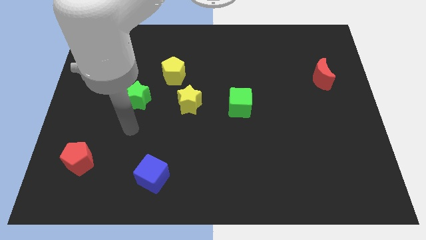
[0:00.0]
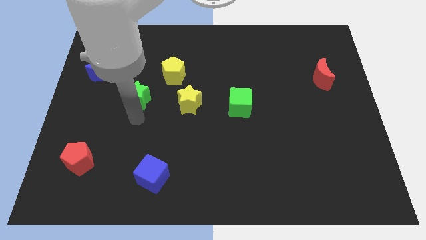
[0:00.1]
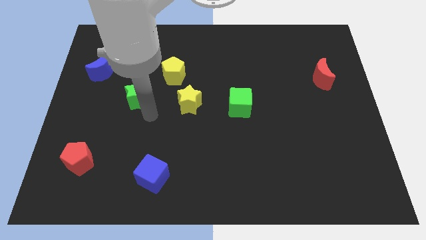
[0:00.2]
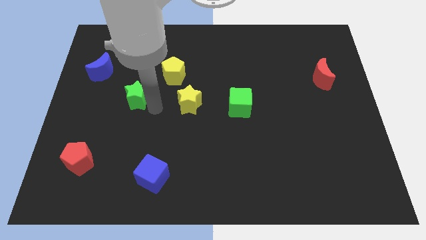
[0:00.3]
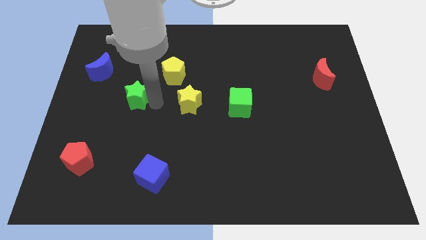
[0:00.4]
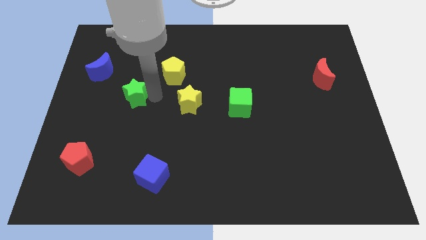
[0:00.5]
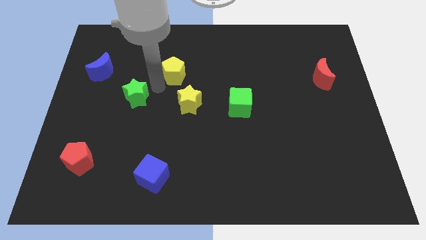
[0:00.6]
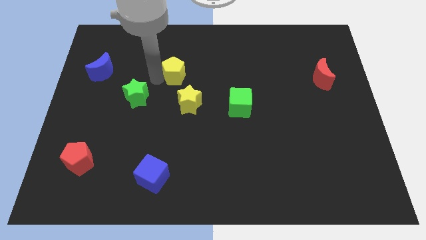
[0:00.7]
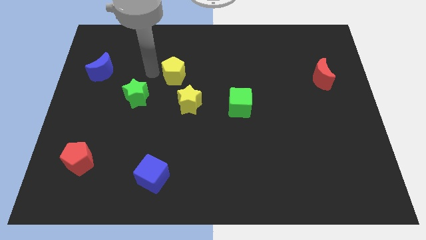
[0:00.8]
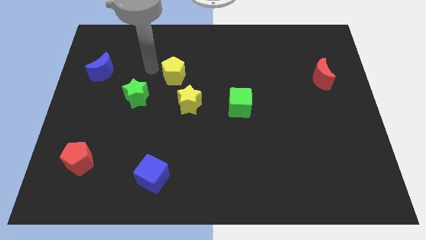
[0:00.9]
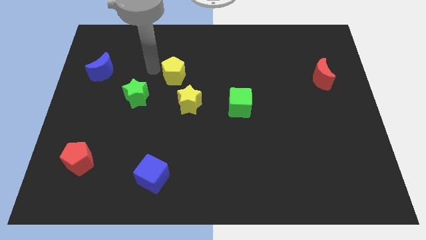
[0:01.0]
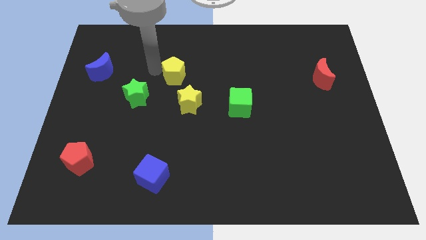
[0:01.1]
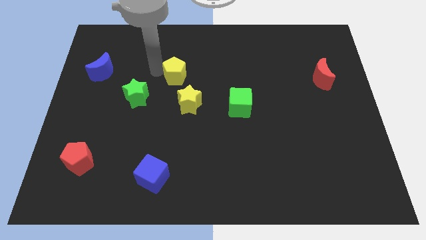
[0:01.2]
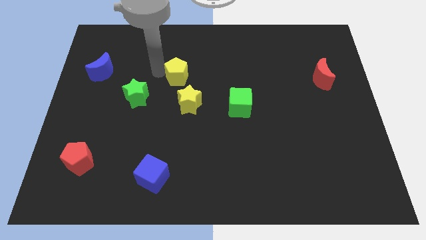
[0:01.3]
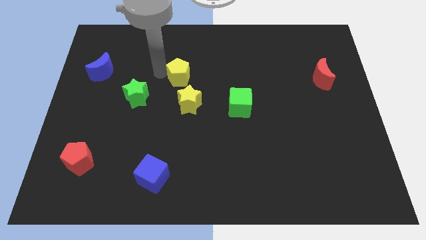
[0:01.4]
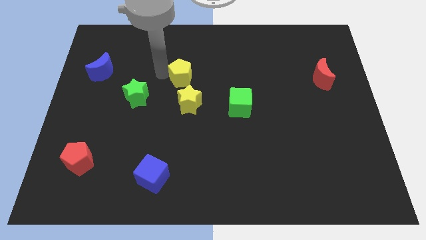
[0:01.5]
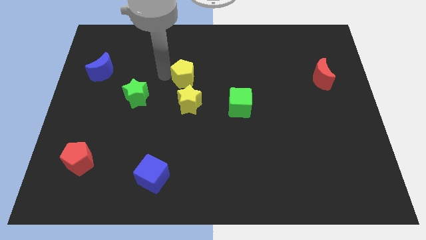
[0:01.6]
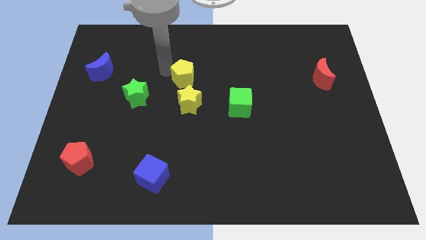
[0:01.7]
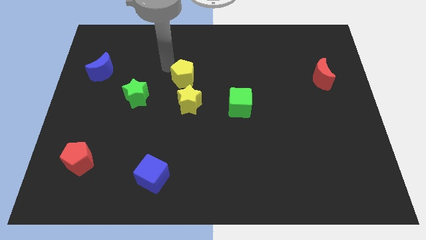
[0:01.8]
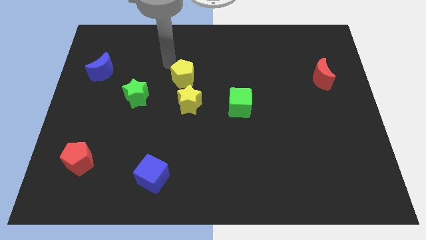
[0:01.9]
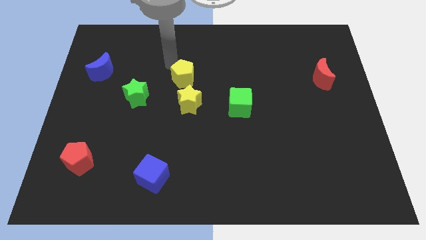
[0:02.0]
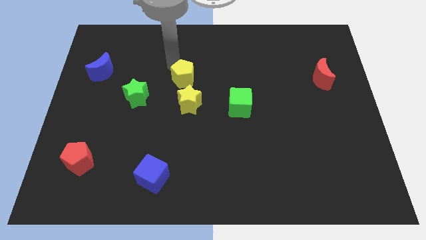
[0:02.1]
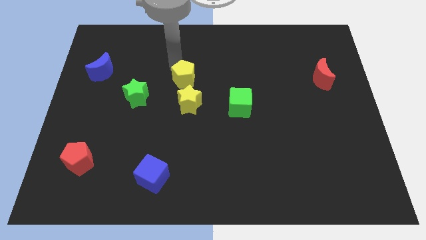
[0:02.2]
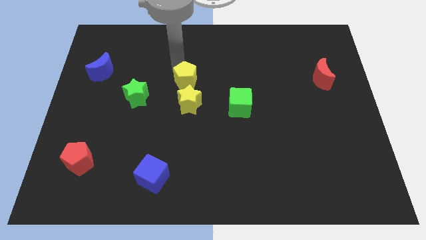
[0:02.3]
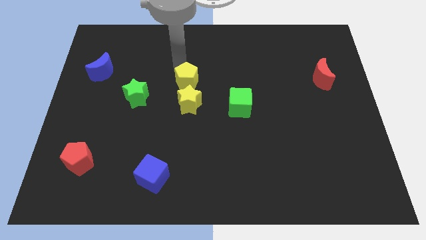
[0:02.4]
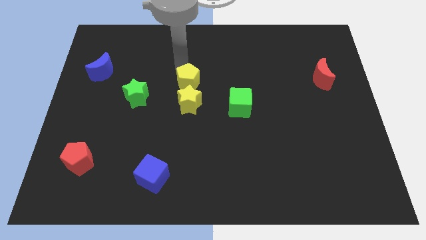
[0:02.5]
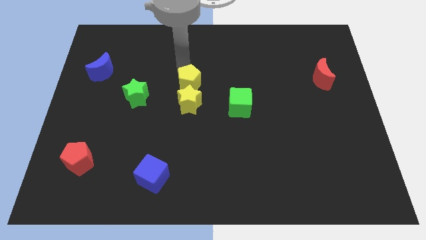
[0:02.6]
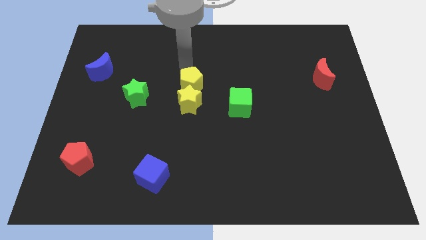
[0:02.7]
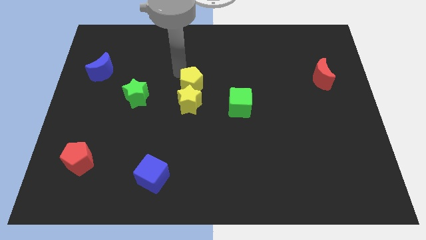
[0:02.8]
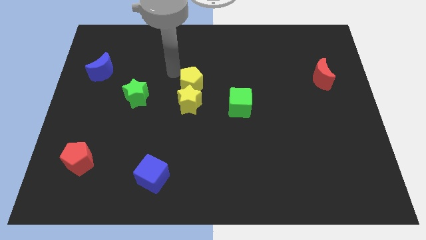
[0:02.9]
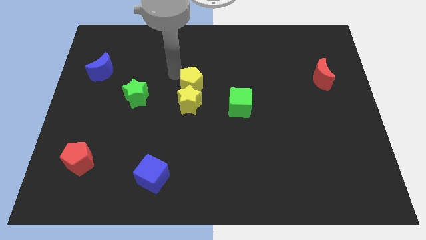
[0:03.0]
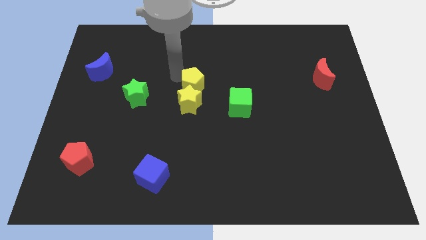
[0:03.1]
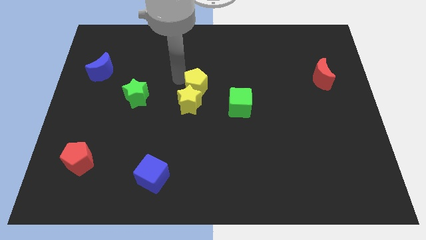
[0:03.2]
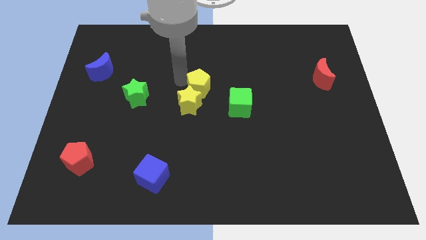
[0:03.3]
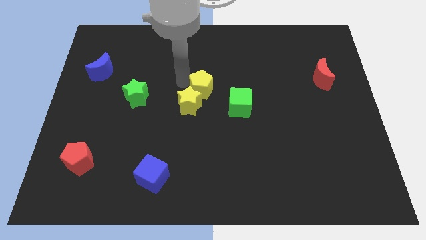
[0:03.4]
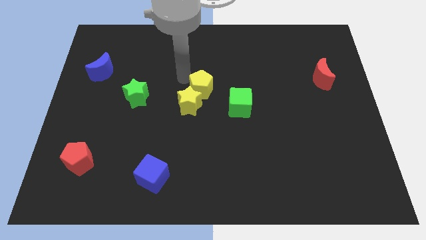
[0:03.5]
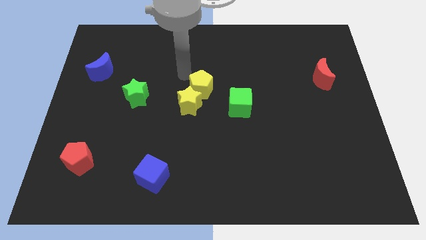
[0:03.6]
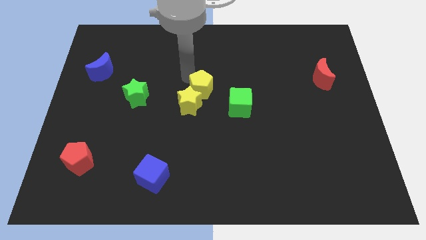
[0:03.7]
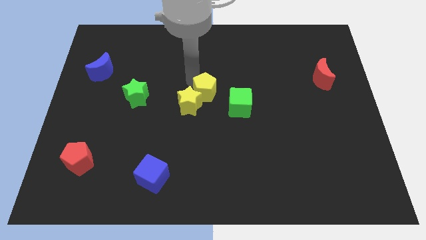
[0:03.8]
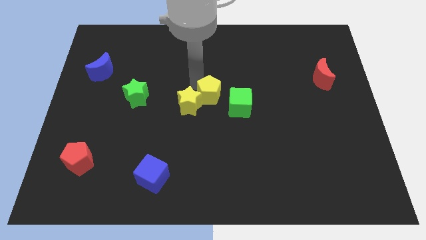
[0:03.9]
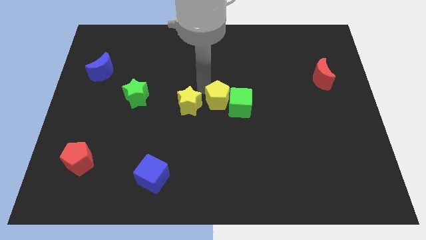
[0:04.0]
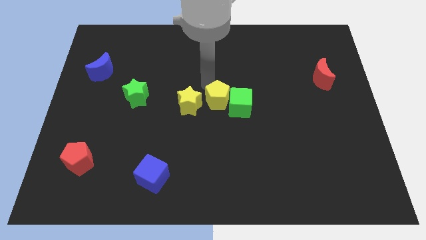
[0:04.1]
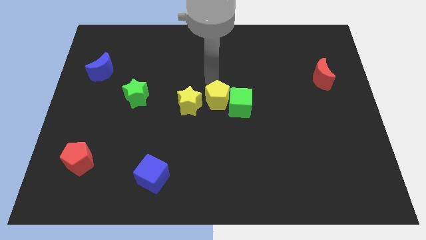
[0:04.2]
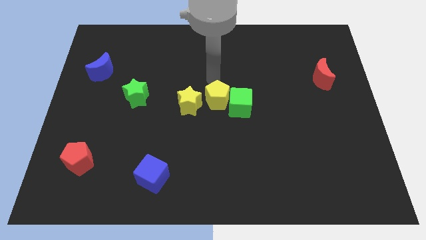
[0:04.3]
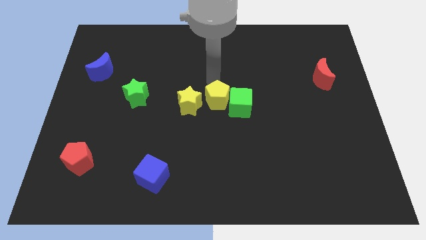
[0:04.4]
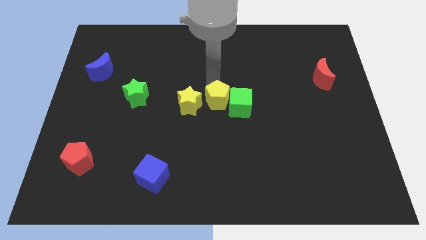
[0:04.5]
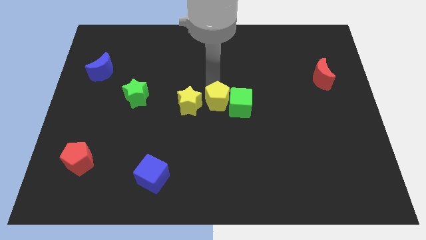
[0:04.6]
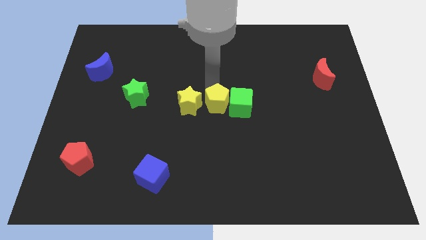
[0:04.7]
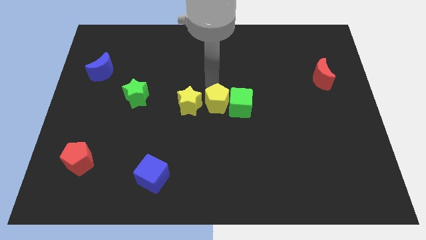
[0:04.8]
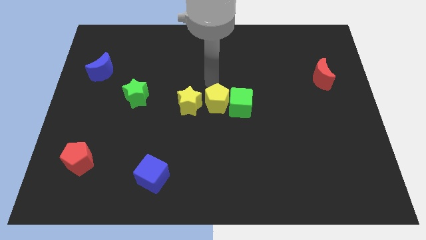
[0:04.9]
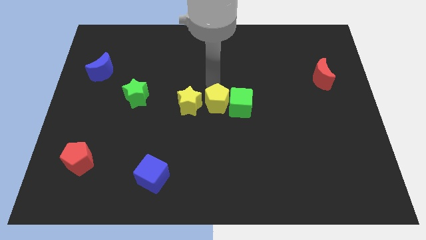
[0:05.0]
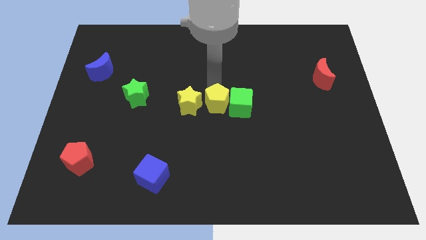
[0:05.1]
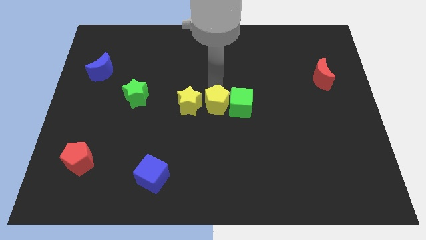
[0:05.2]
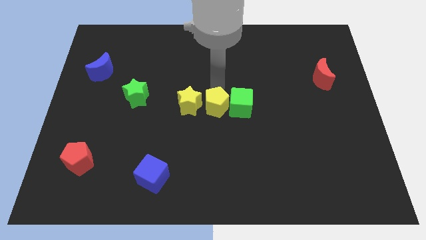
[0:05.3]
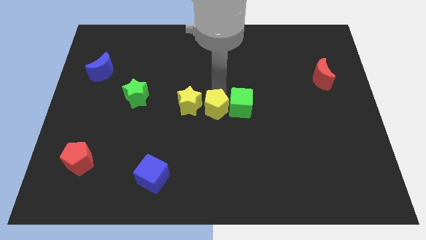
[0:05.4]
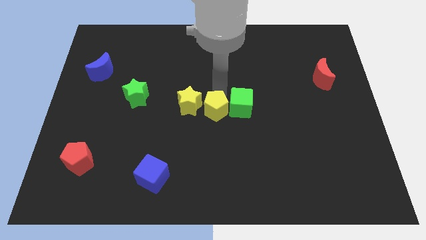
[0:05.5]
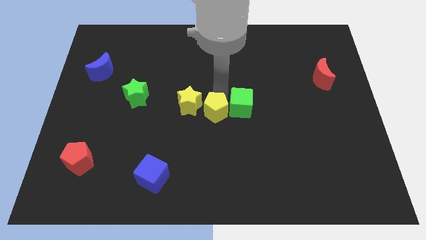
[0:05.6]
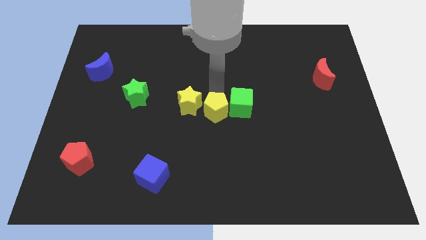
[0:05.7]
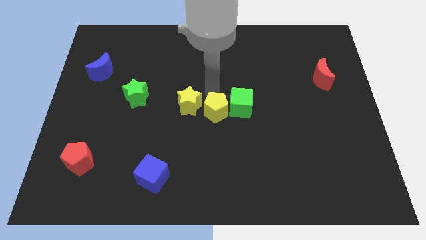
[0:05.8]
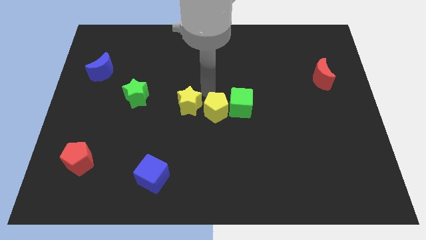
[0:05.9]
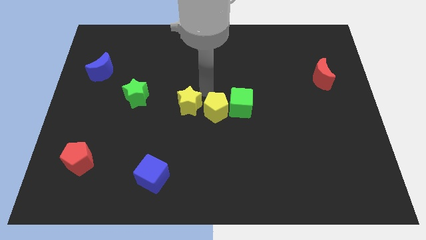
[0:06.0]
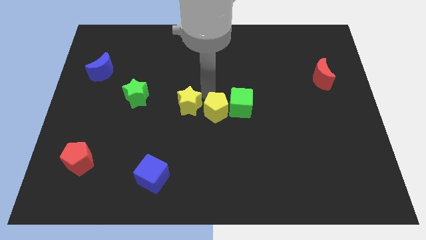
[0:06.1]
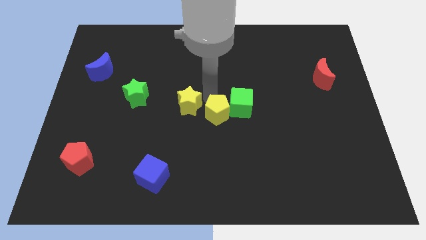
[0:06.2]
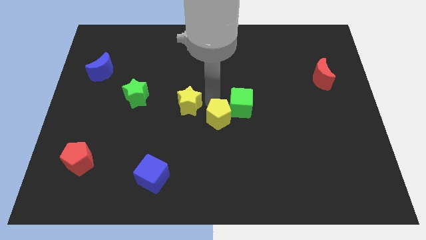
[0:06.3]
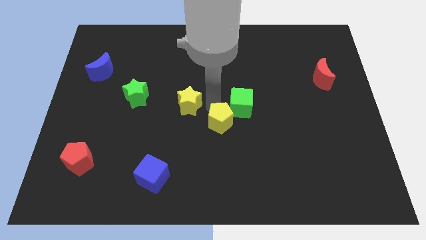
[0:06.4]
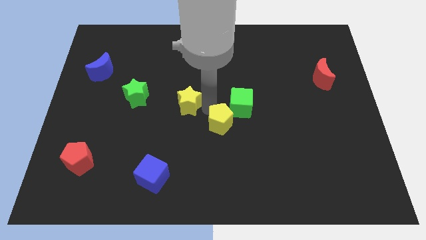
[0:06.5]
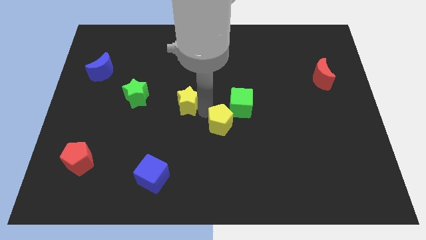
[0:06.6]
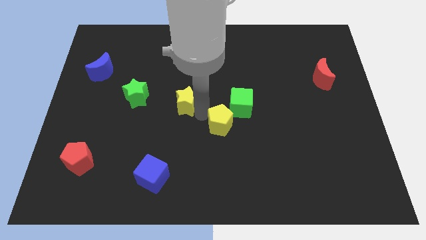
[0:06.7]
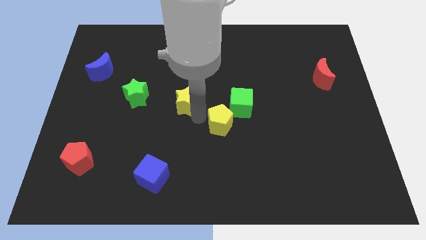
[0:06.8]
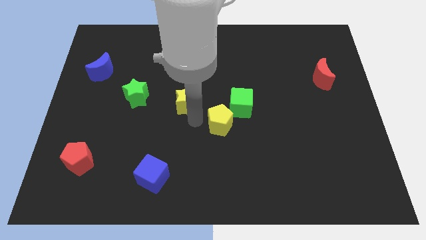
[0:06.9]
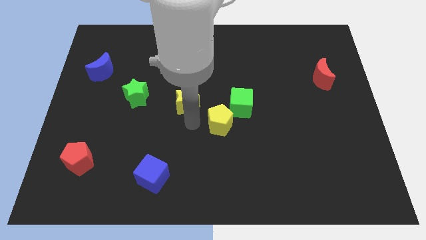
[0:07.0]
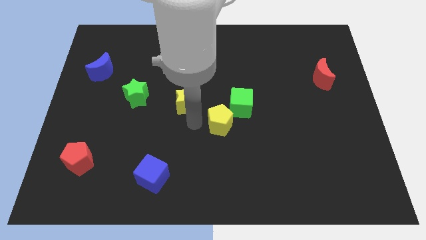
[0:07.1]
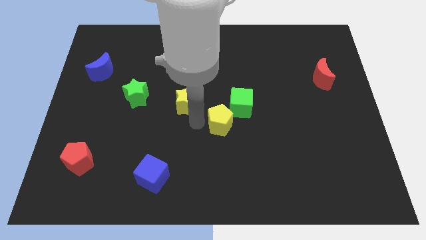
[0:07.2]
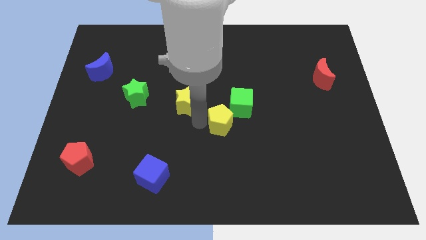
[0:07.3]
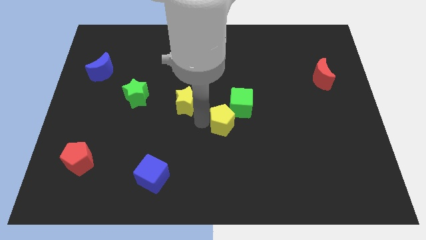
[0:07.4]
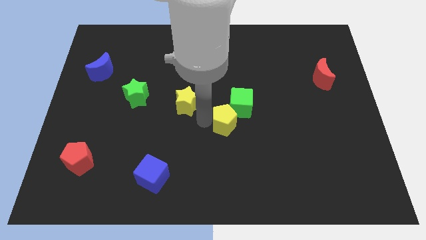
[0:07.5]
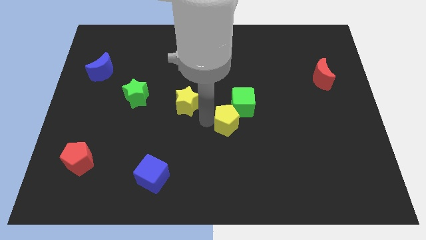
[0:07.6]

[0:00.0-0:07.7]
push the yellow pentagon downwards and to the right diagonally

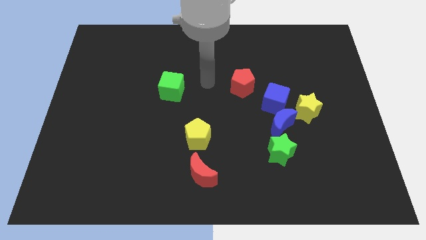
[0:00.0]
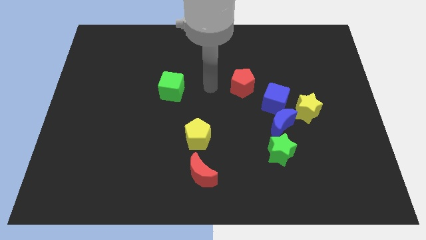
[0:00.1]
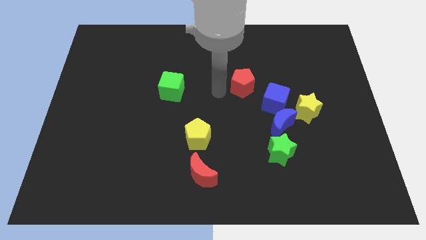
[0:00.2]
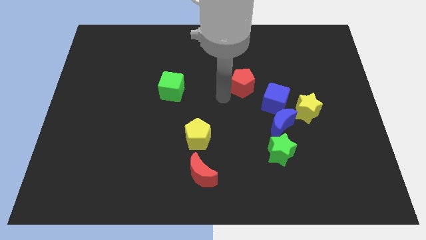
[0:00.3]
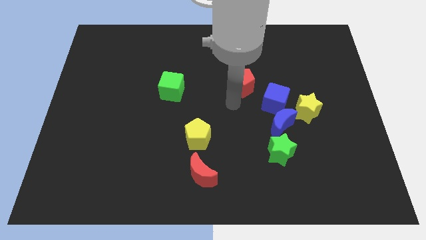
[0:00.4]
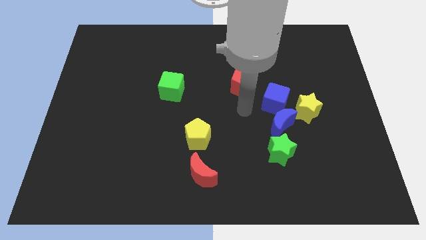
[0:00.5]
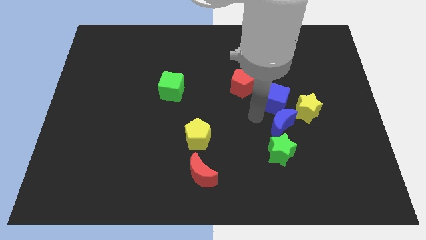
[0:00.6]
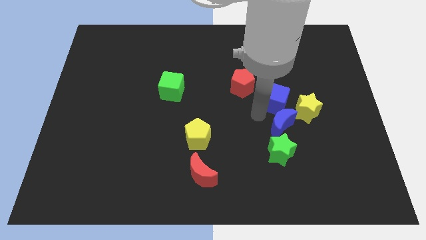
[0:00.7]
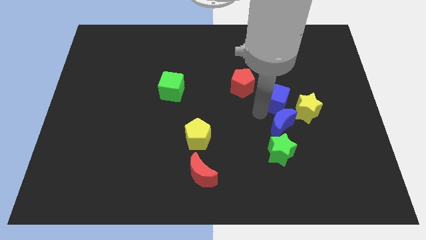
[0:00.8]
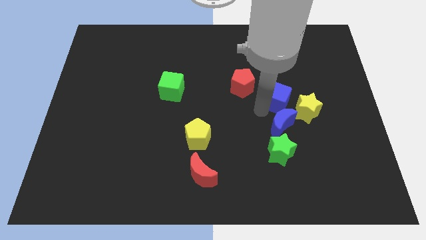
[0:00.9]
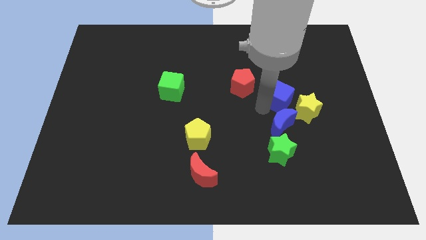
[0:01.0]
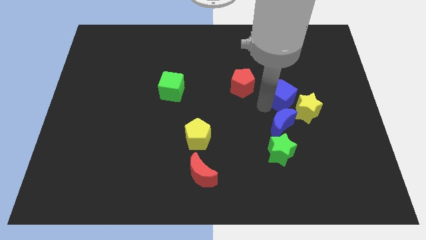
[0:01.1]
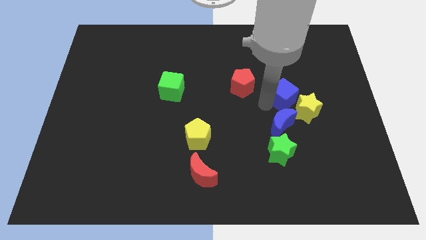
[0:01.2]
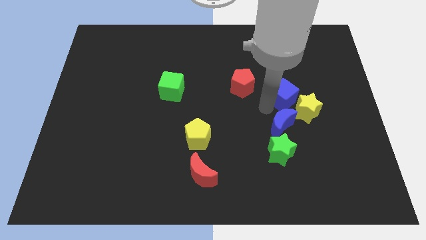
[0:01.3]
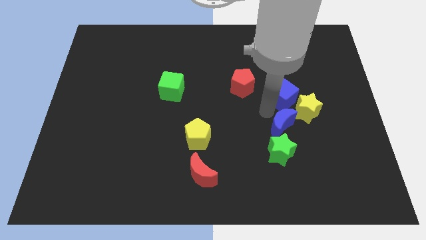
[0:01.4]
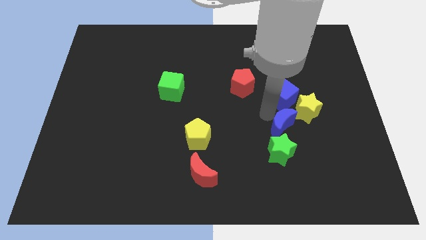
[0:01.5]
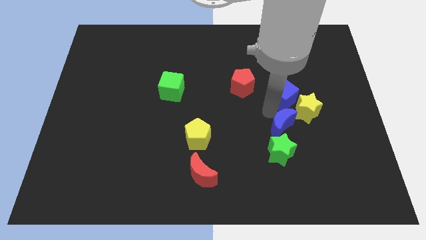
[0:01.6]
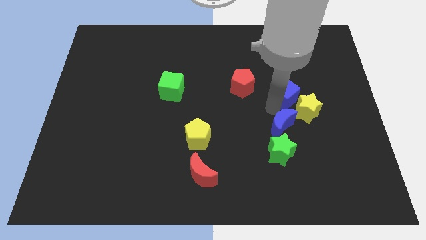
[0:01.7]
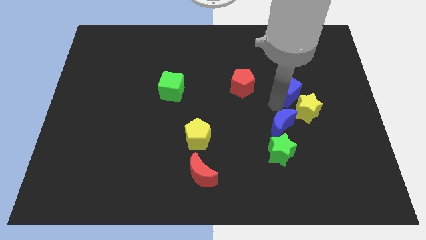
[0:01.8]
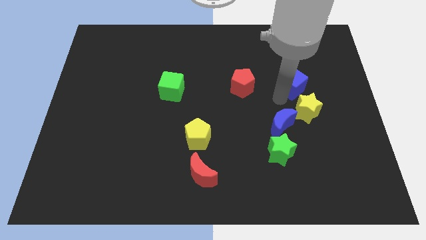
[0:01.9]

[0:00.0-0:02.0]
move the blue cube somewhat up and to the right
